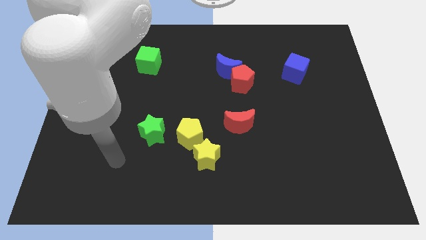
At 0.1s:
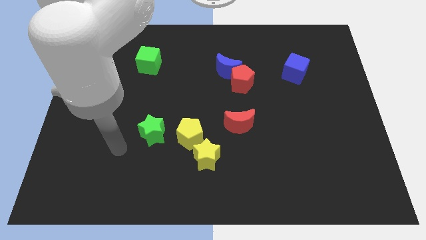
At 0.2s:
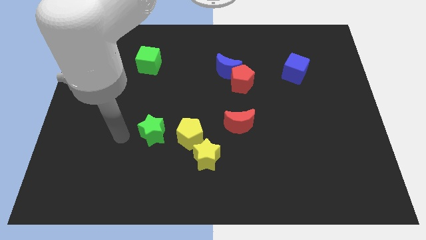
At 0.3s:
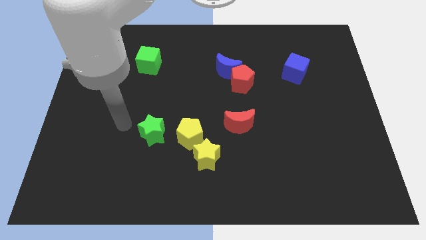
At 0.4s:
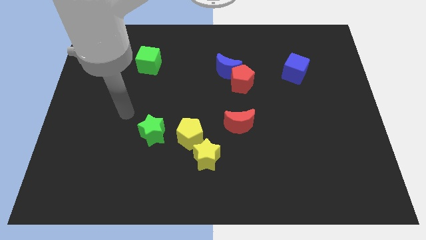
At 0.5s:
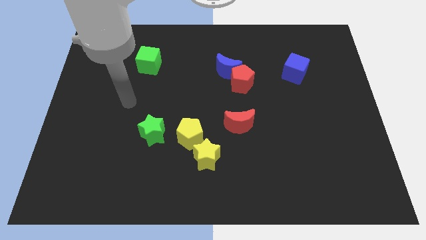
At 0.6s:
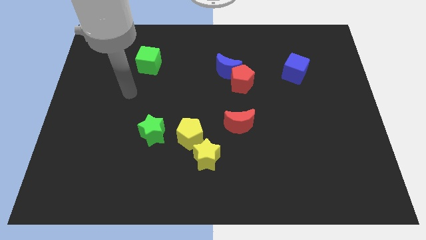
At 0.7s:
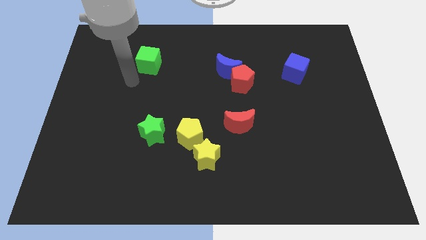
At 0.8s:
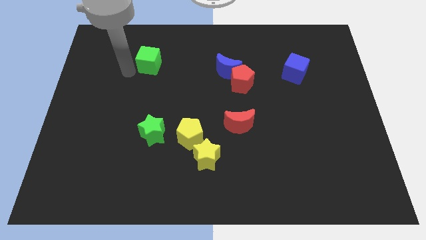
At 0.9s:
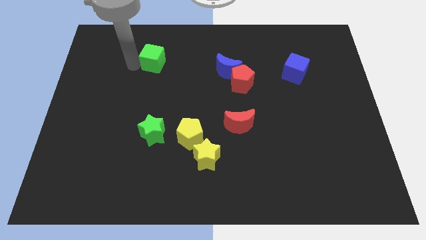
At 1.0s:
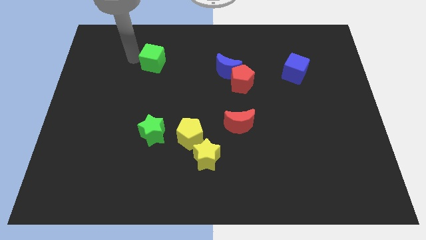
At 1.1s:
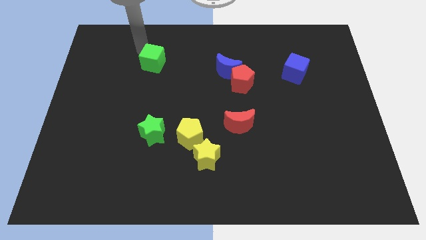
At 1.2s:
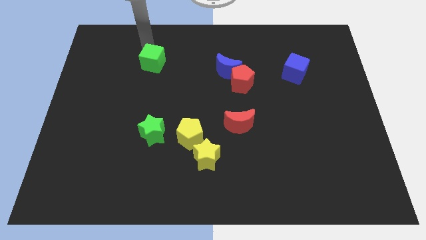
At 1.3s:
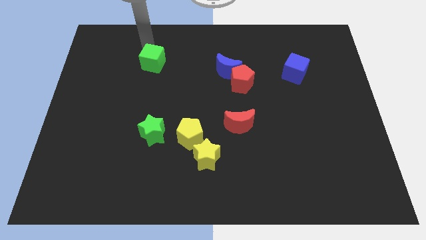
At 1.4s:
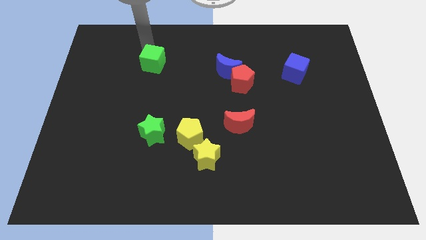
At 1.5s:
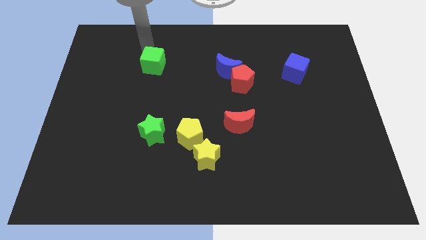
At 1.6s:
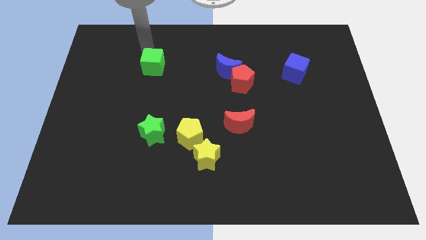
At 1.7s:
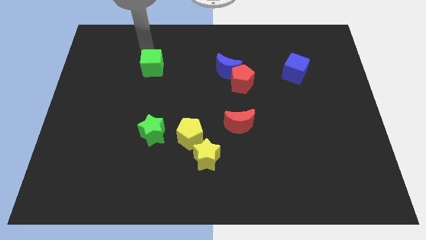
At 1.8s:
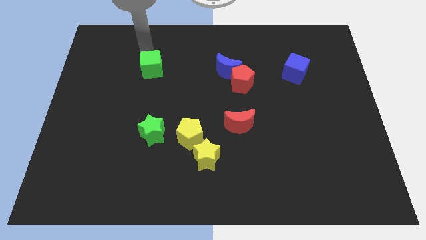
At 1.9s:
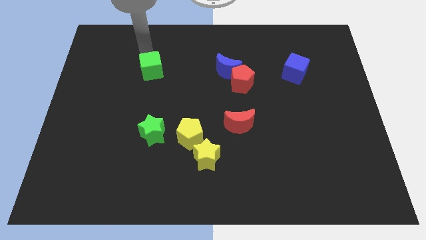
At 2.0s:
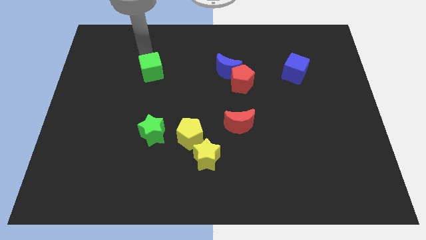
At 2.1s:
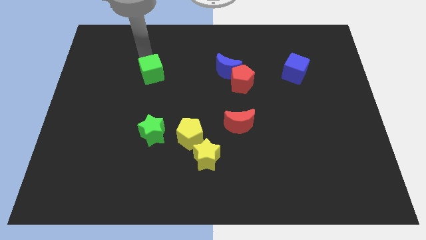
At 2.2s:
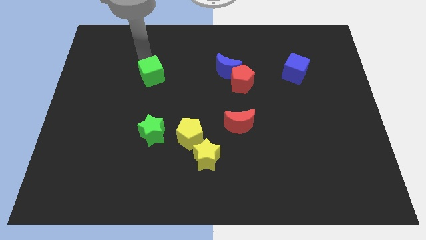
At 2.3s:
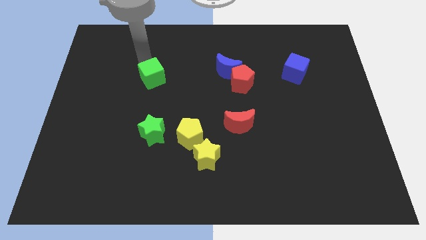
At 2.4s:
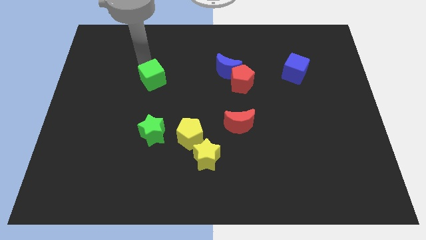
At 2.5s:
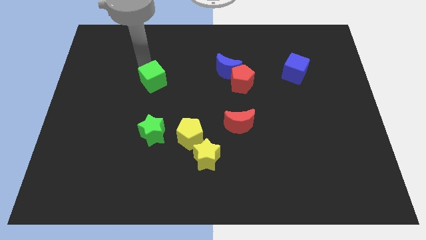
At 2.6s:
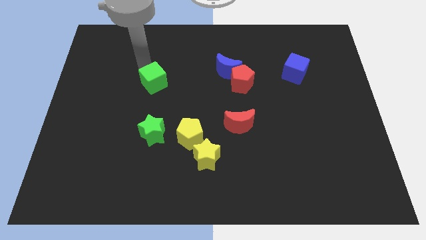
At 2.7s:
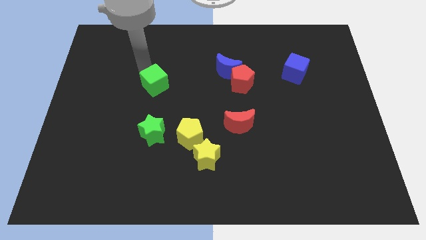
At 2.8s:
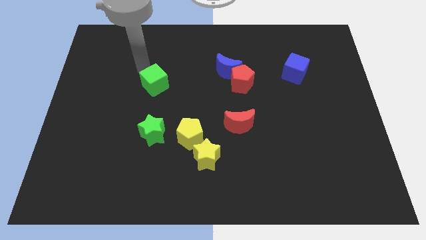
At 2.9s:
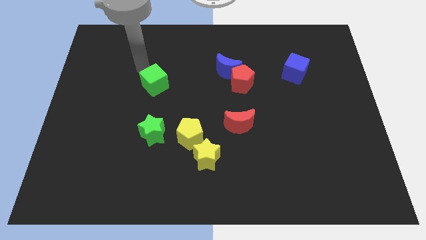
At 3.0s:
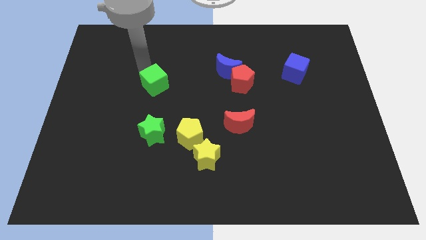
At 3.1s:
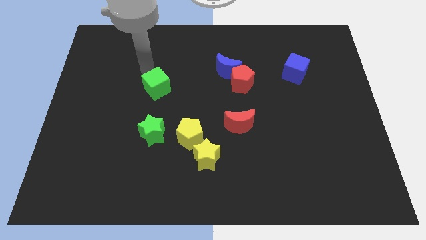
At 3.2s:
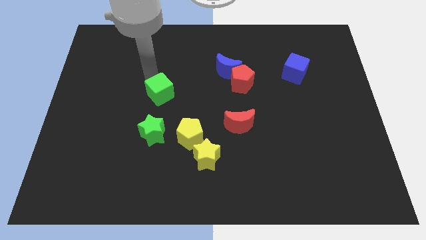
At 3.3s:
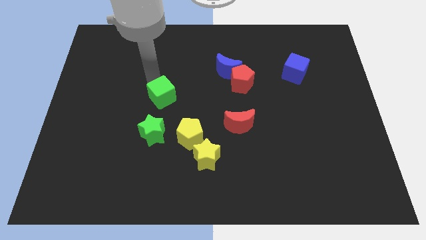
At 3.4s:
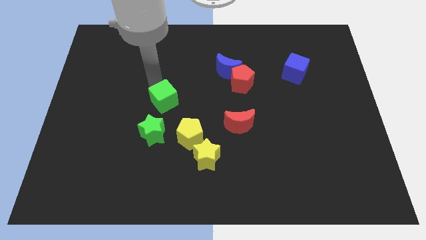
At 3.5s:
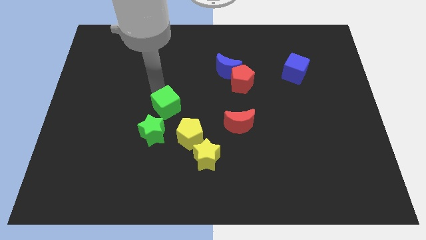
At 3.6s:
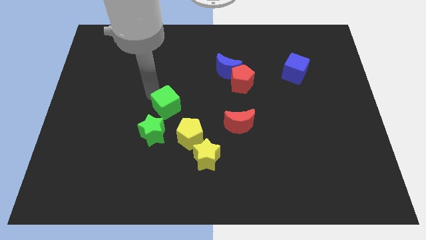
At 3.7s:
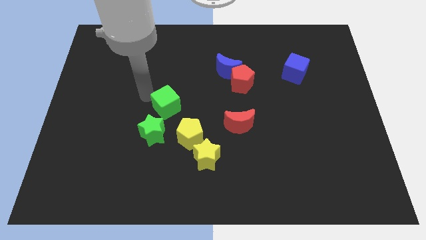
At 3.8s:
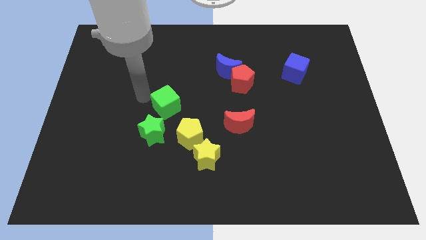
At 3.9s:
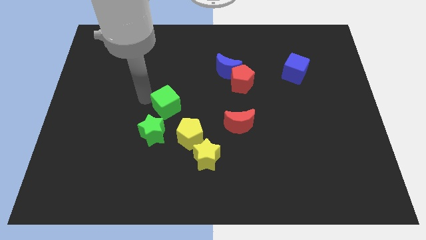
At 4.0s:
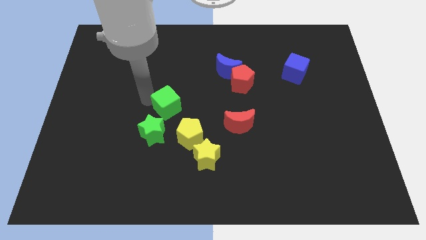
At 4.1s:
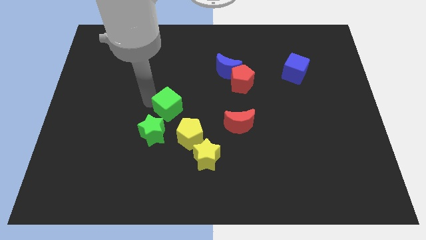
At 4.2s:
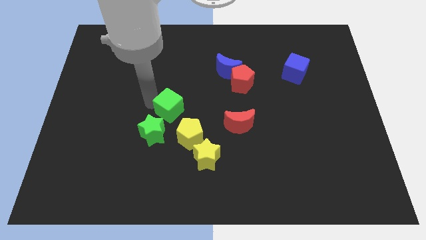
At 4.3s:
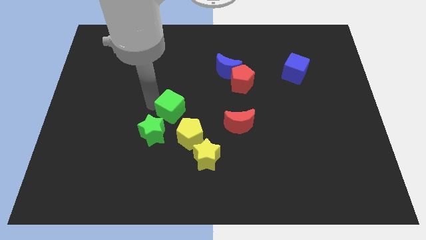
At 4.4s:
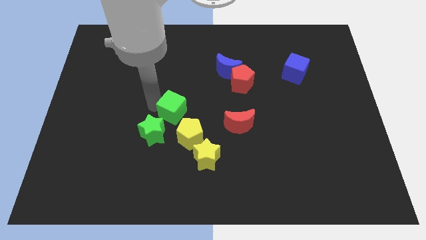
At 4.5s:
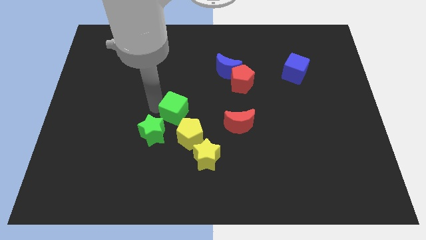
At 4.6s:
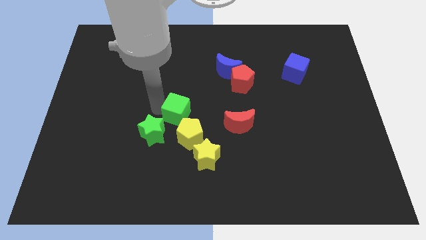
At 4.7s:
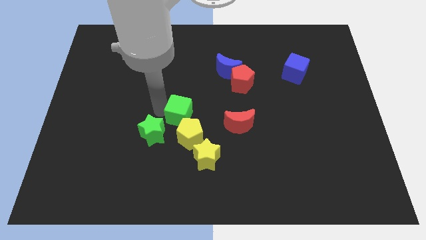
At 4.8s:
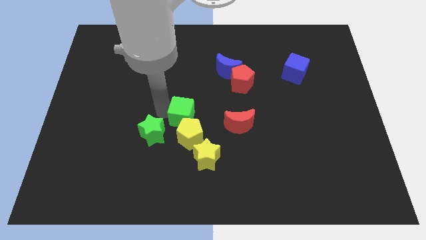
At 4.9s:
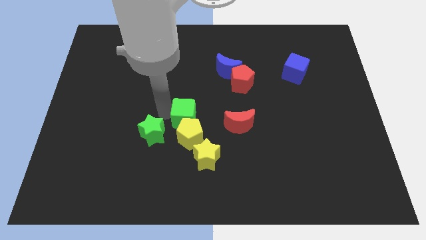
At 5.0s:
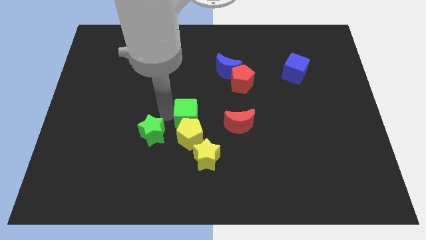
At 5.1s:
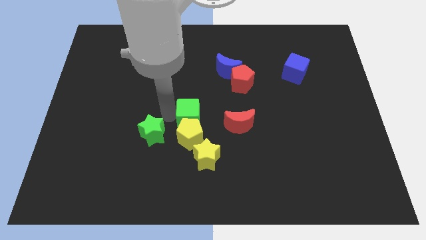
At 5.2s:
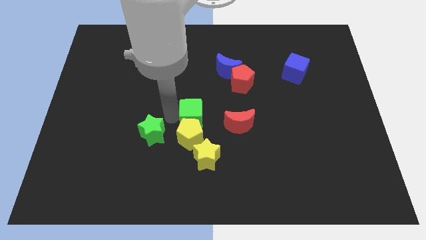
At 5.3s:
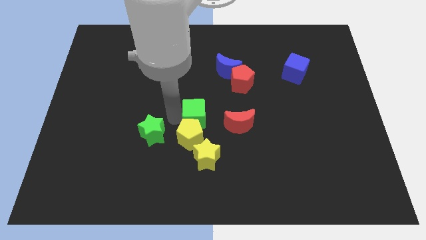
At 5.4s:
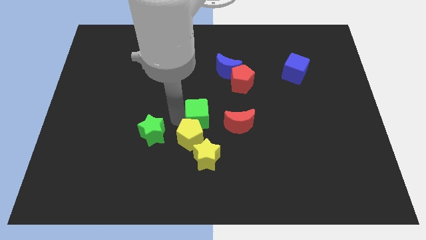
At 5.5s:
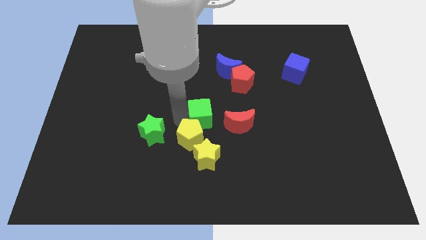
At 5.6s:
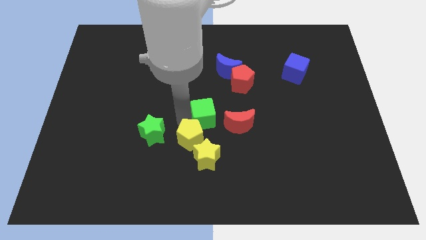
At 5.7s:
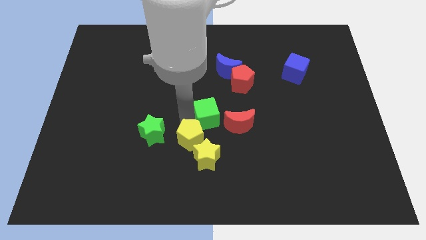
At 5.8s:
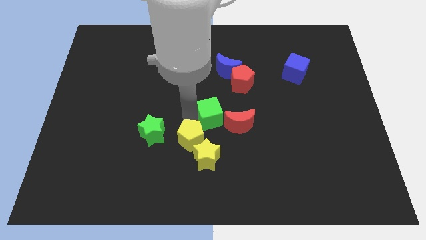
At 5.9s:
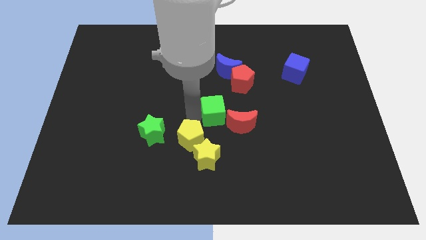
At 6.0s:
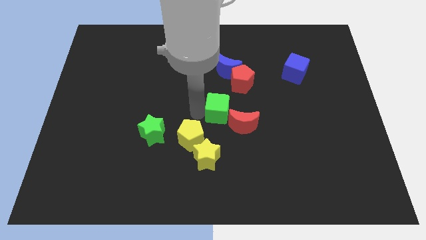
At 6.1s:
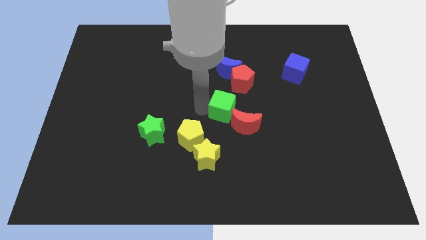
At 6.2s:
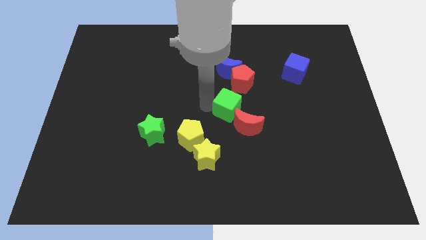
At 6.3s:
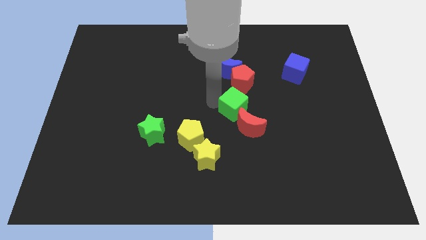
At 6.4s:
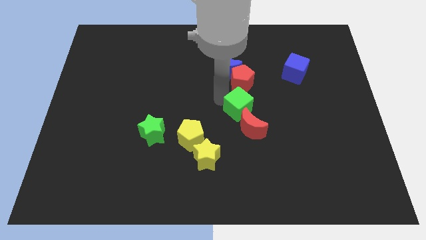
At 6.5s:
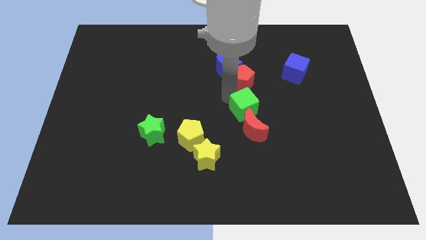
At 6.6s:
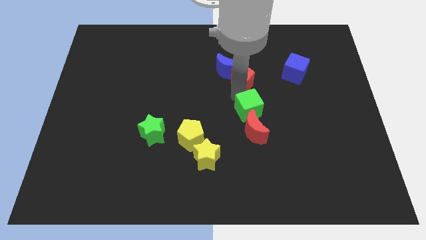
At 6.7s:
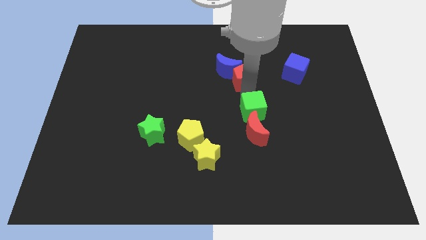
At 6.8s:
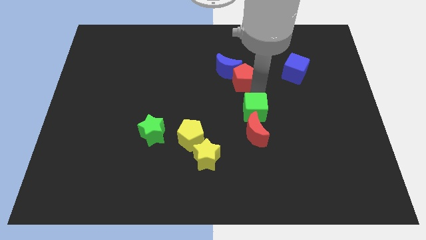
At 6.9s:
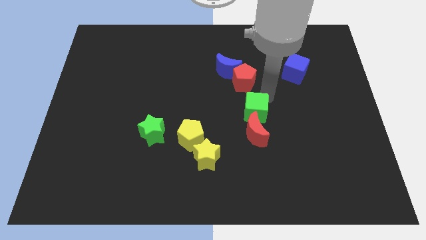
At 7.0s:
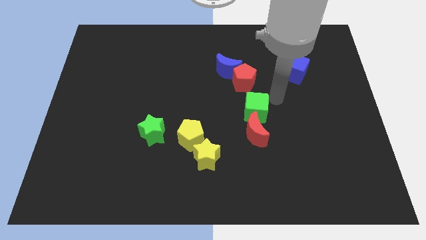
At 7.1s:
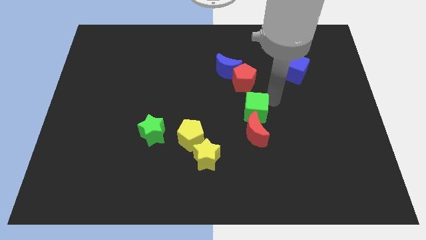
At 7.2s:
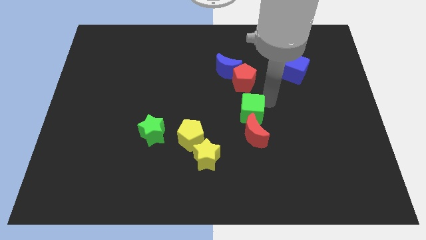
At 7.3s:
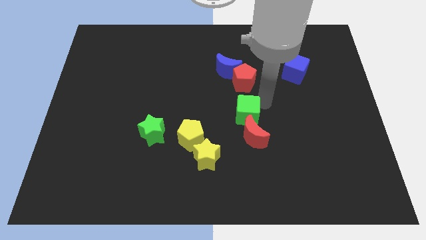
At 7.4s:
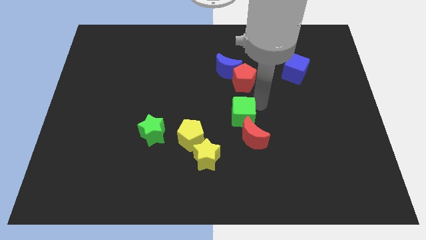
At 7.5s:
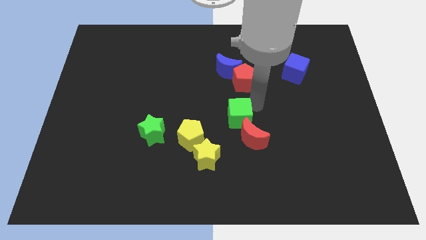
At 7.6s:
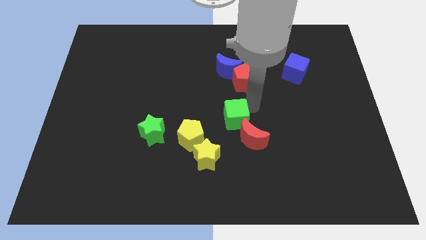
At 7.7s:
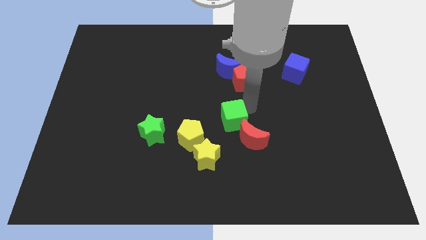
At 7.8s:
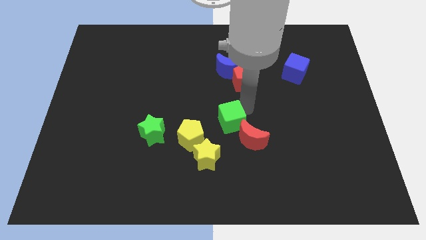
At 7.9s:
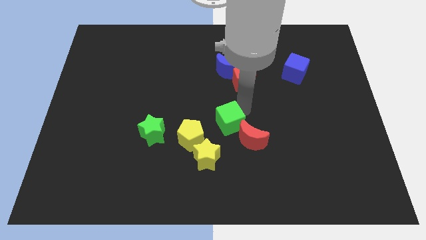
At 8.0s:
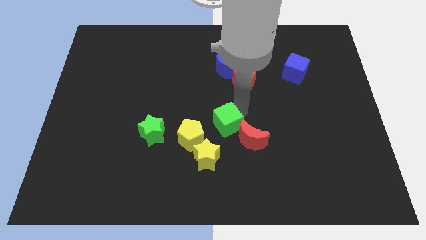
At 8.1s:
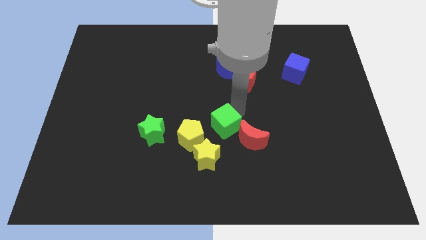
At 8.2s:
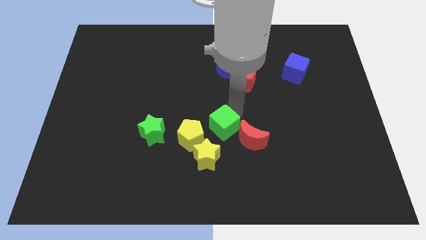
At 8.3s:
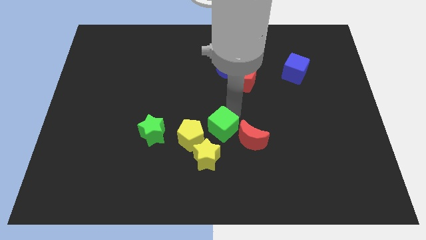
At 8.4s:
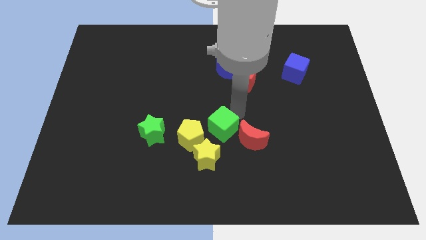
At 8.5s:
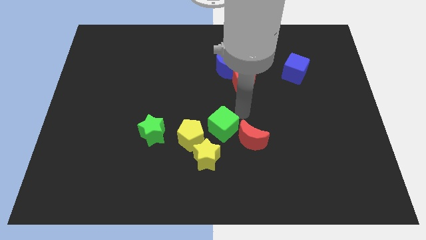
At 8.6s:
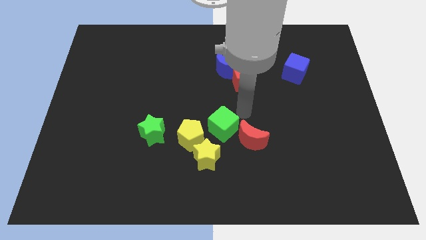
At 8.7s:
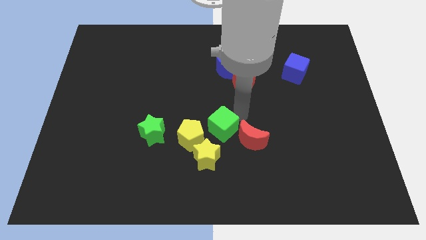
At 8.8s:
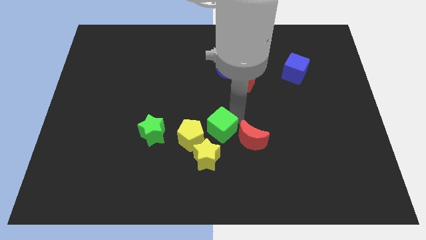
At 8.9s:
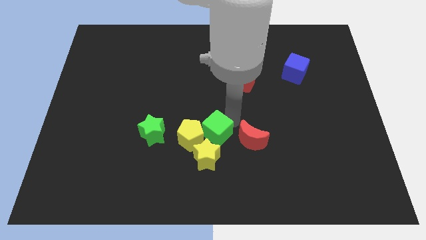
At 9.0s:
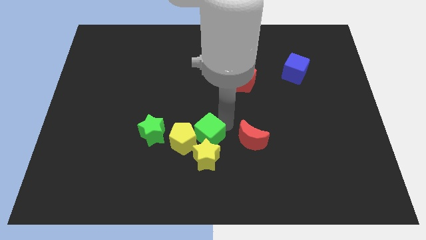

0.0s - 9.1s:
slide the green cube close to the yellow star
